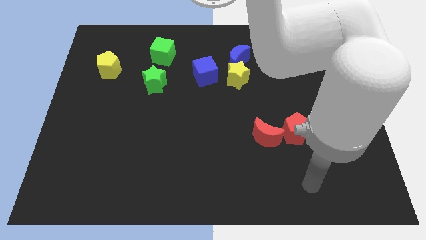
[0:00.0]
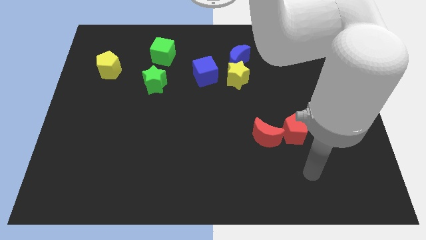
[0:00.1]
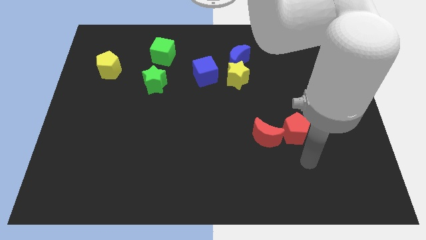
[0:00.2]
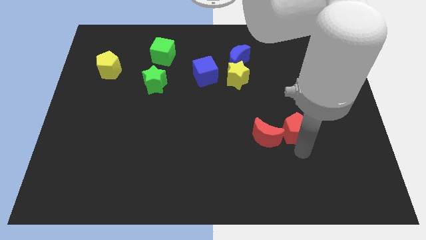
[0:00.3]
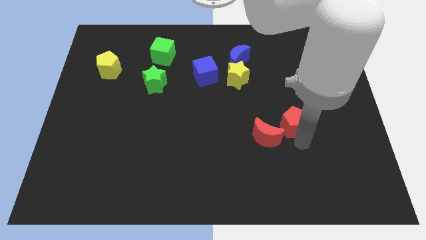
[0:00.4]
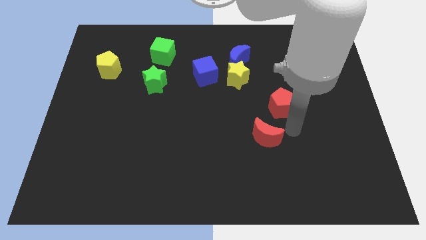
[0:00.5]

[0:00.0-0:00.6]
move the red moon away from the red pentagon

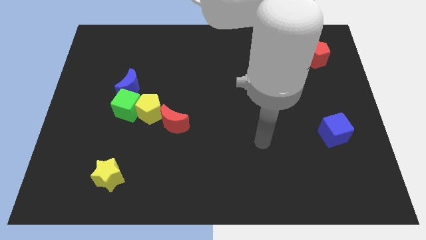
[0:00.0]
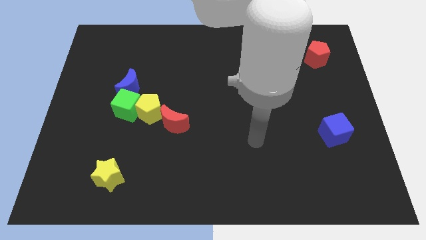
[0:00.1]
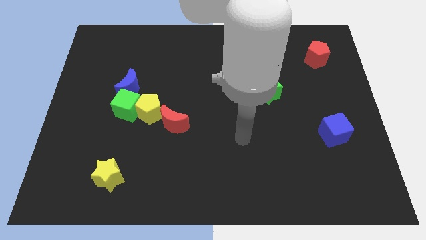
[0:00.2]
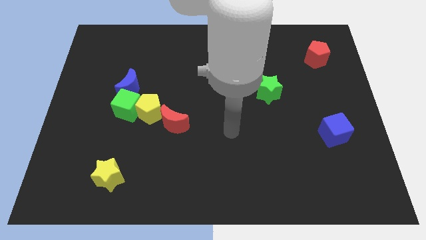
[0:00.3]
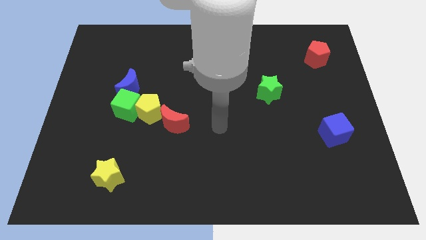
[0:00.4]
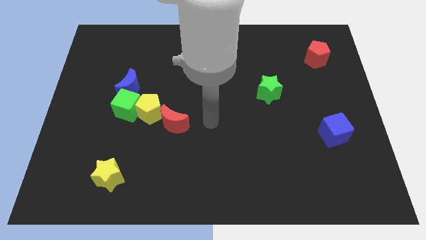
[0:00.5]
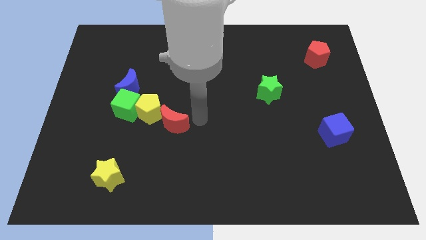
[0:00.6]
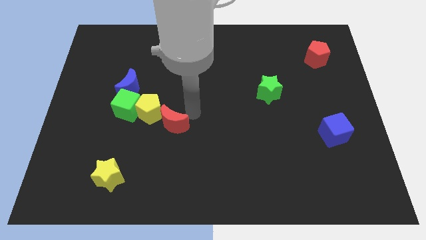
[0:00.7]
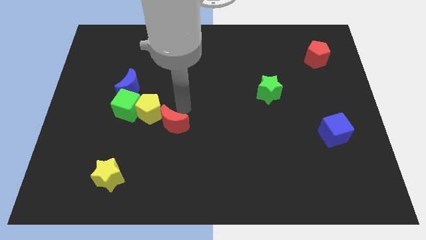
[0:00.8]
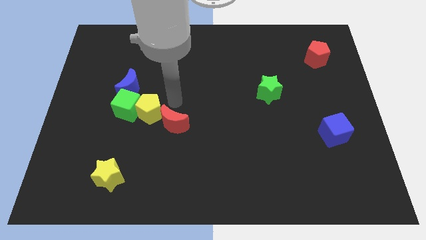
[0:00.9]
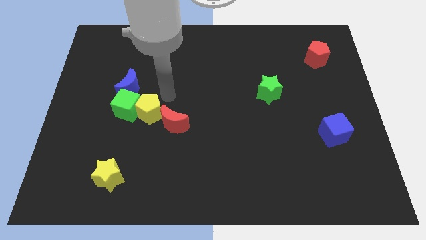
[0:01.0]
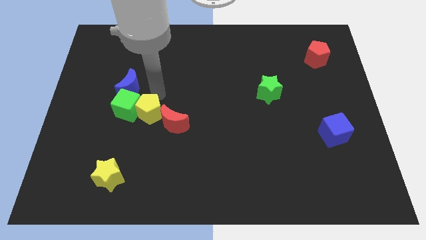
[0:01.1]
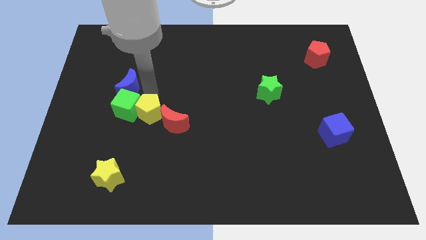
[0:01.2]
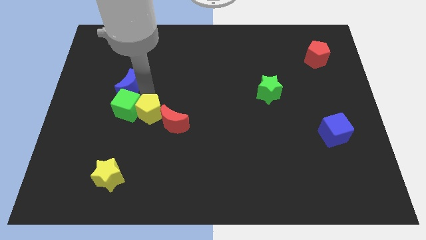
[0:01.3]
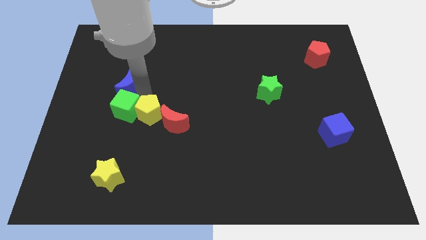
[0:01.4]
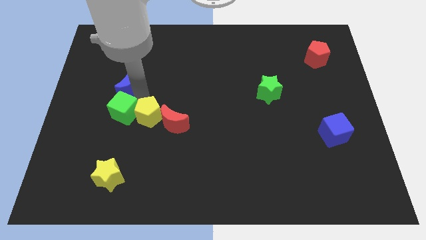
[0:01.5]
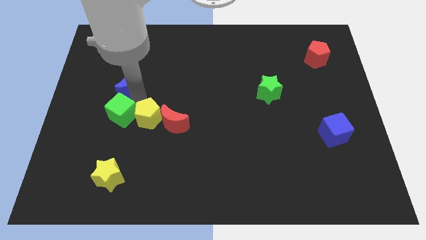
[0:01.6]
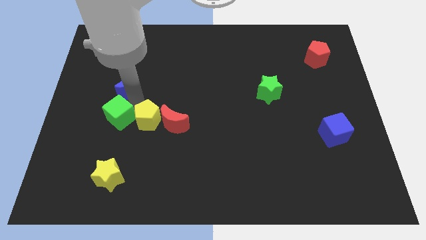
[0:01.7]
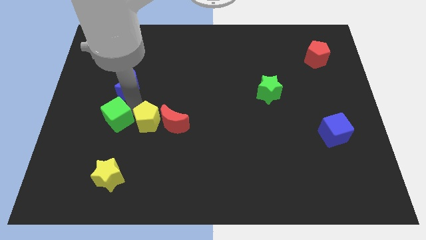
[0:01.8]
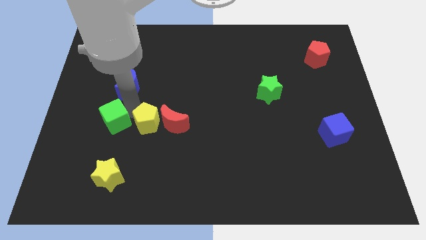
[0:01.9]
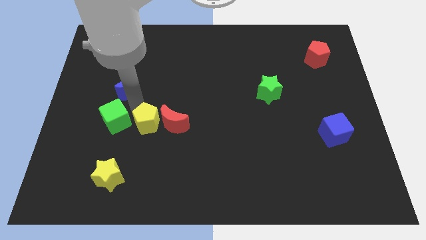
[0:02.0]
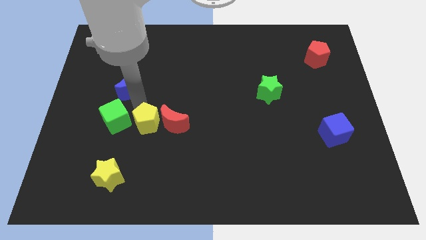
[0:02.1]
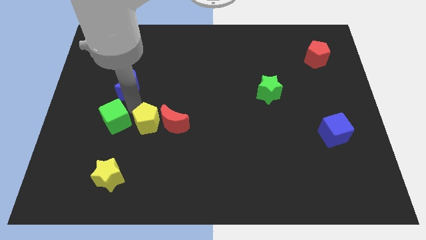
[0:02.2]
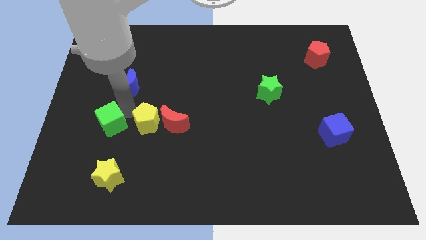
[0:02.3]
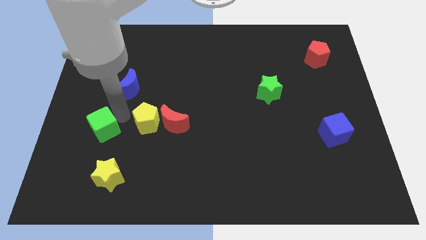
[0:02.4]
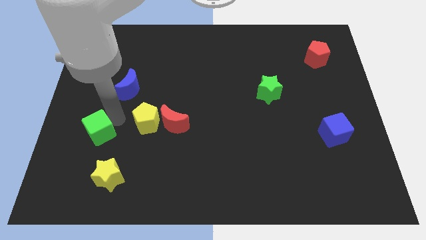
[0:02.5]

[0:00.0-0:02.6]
separate the green cube from the yellow pentagon and blue moon

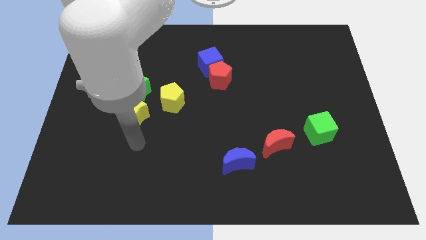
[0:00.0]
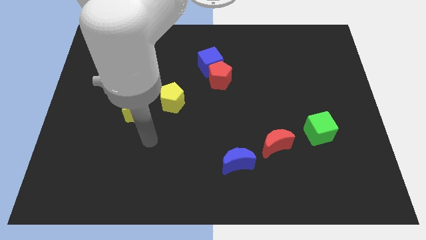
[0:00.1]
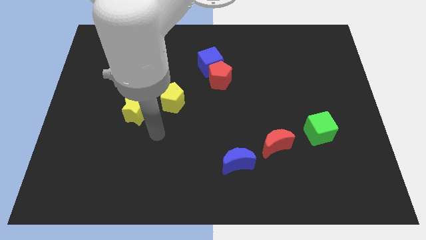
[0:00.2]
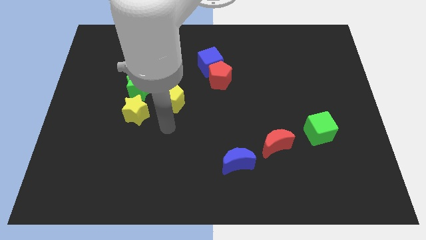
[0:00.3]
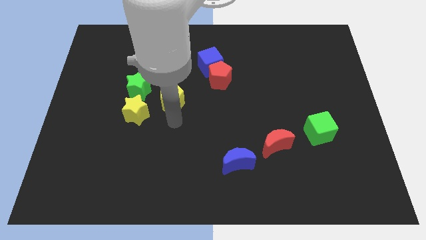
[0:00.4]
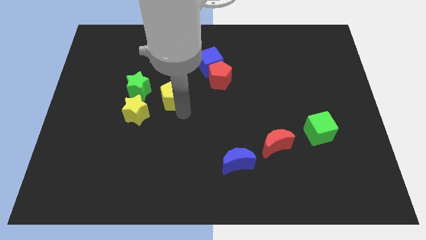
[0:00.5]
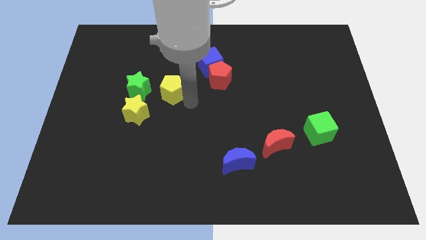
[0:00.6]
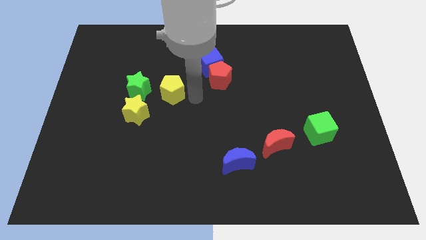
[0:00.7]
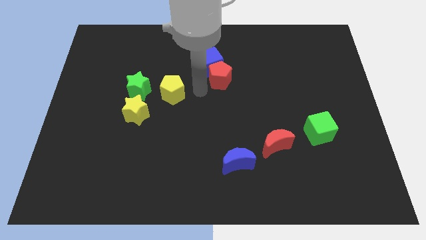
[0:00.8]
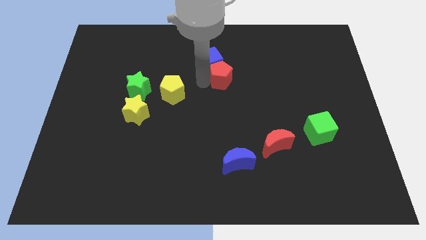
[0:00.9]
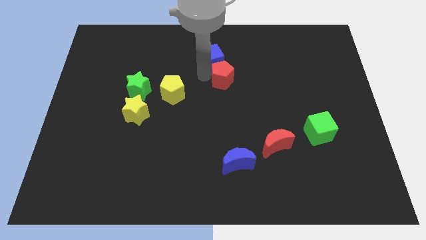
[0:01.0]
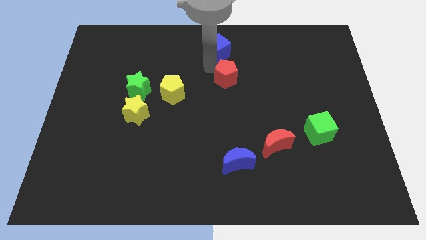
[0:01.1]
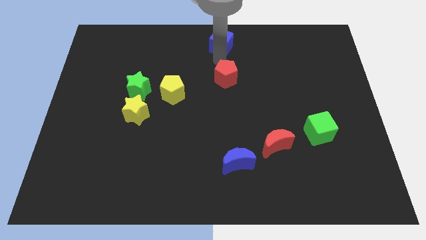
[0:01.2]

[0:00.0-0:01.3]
separate the red pentagon from the blue cube

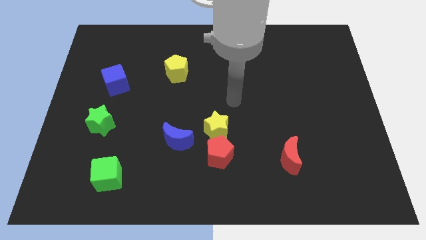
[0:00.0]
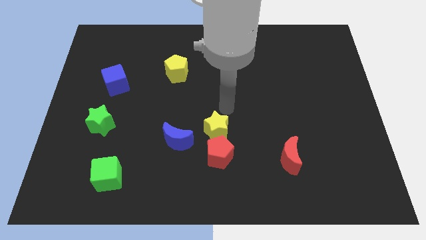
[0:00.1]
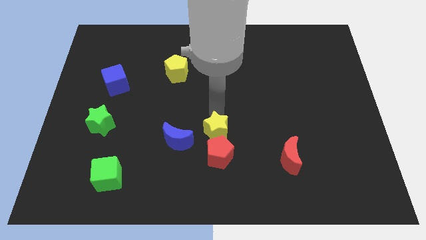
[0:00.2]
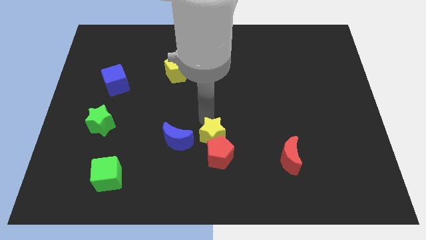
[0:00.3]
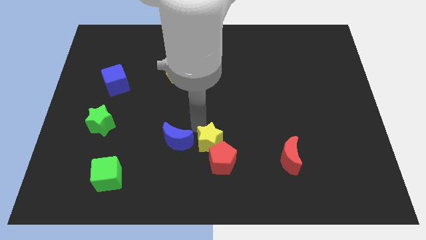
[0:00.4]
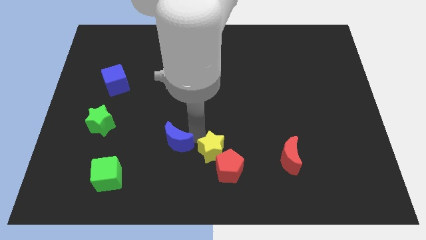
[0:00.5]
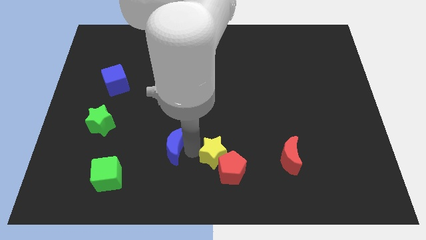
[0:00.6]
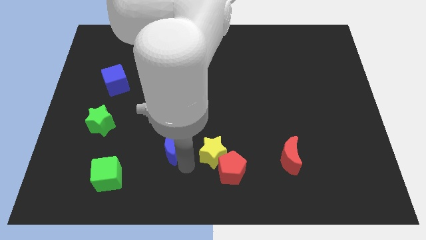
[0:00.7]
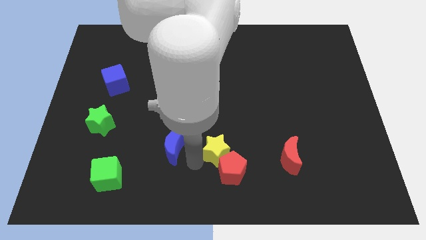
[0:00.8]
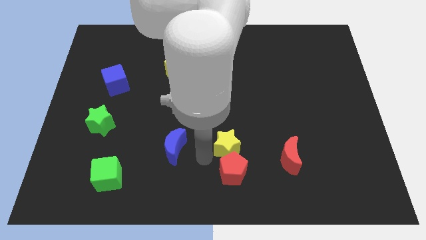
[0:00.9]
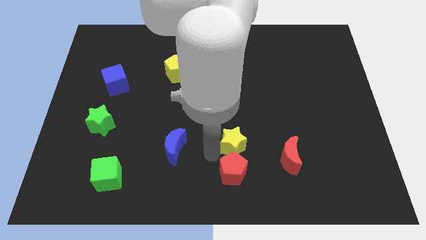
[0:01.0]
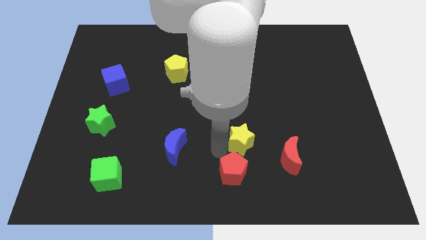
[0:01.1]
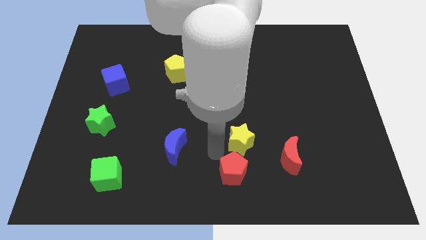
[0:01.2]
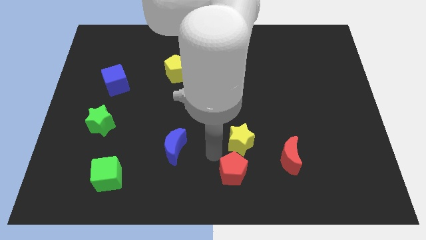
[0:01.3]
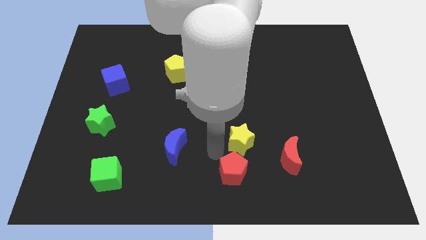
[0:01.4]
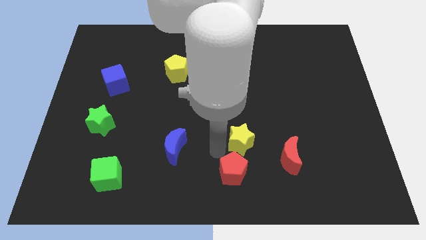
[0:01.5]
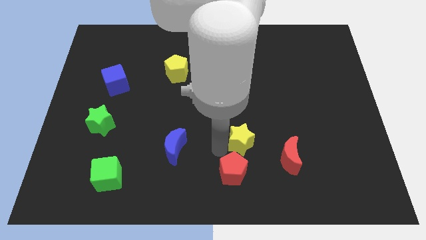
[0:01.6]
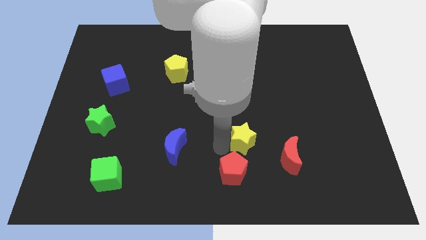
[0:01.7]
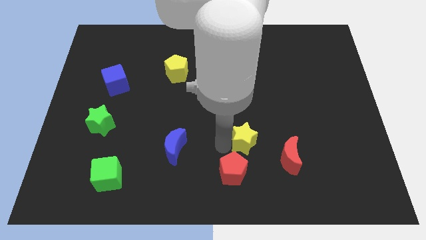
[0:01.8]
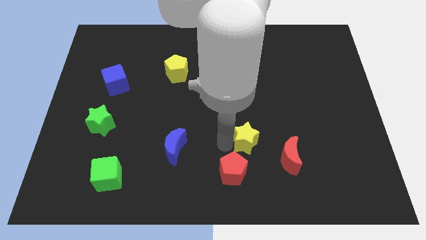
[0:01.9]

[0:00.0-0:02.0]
separate the yellow star from the red pentagon and blue moon

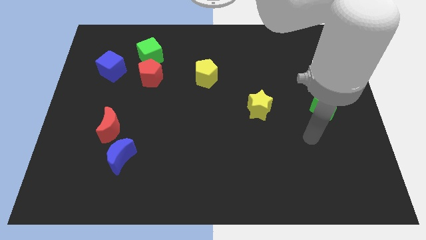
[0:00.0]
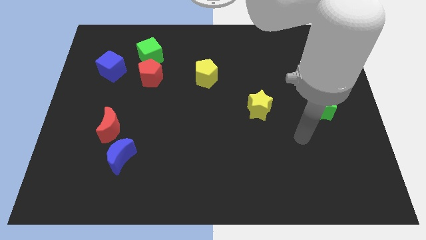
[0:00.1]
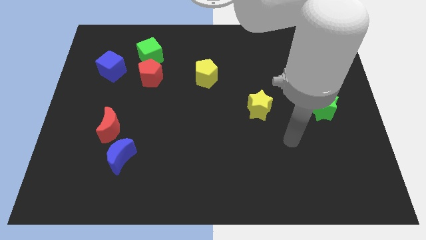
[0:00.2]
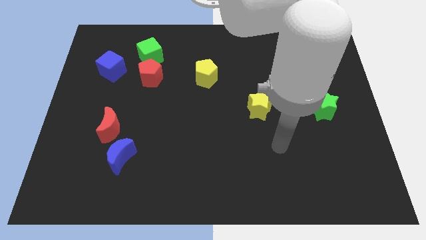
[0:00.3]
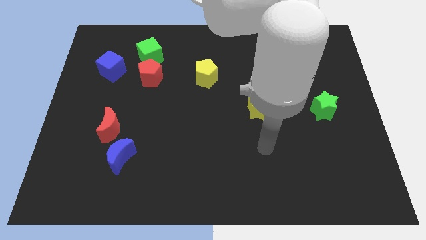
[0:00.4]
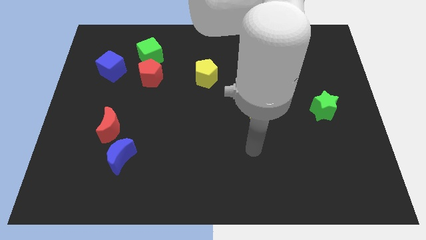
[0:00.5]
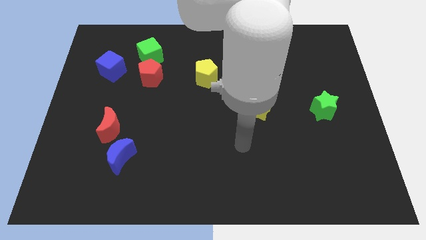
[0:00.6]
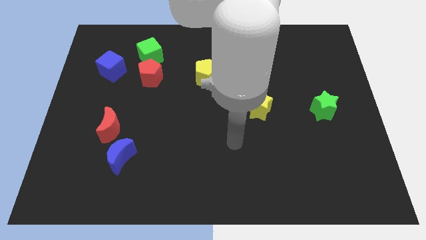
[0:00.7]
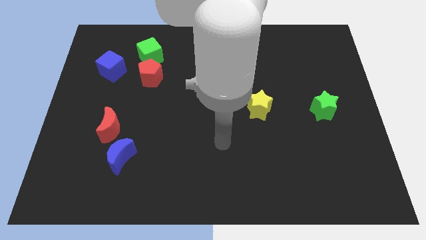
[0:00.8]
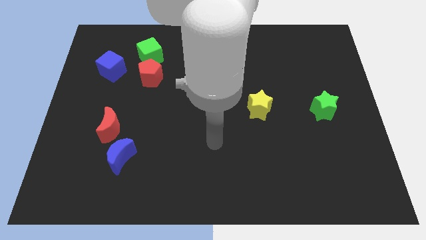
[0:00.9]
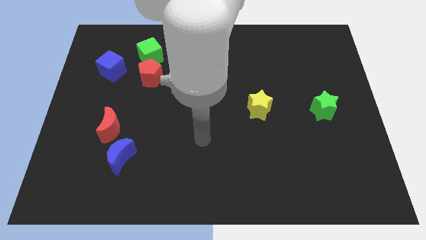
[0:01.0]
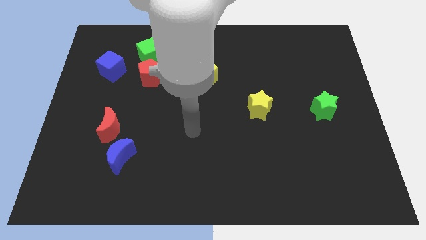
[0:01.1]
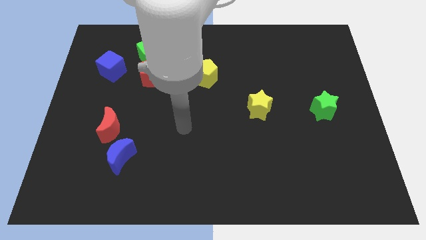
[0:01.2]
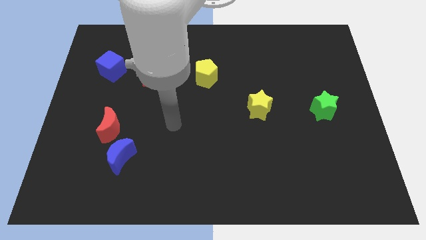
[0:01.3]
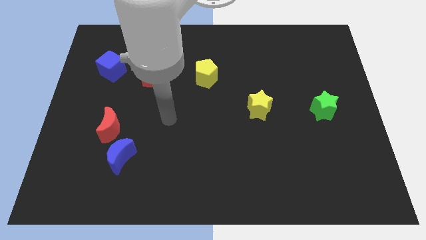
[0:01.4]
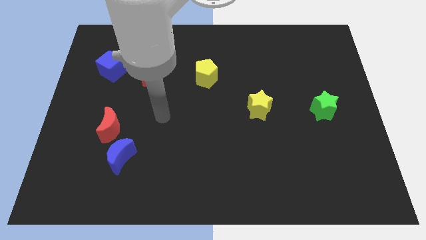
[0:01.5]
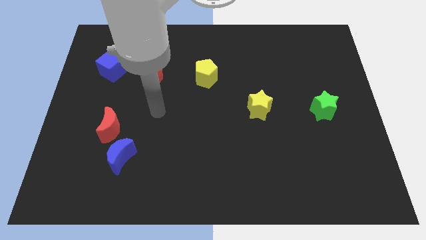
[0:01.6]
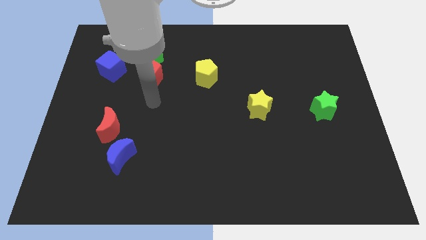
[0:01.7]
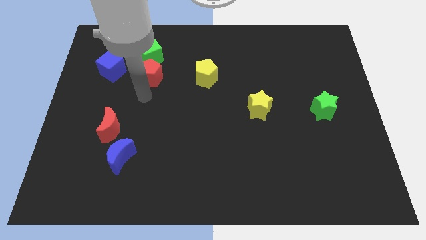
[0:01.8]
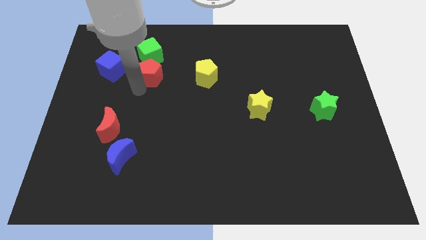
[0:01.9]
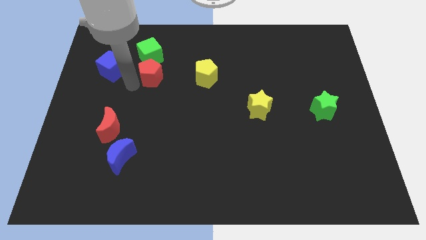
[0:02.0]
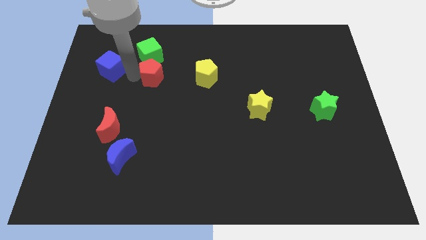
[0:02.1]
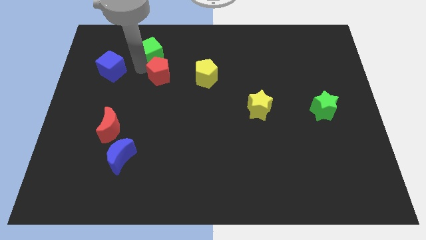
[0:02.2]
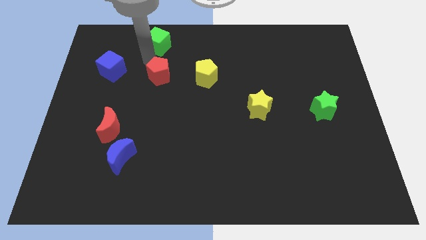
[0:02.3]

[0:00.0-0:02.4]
move the red pentagon away from the green cube

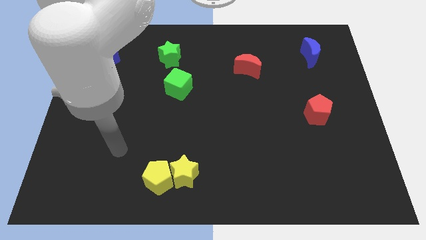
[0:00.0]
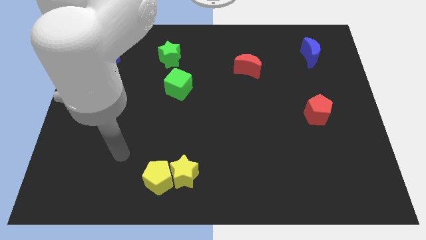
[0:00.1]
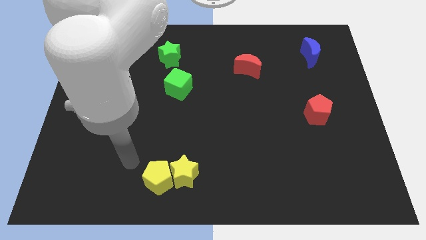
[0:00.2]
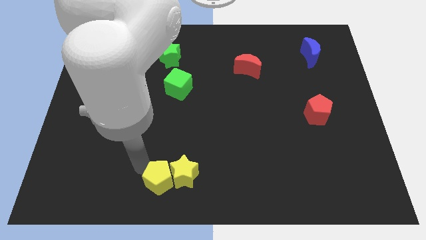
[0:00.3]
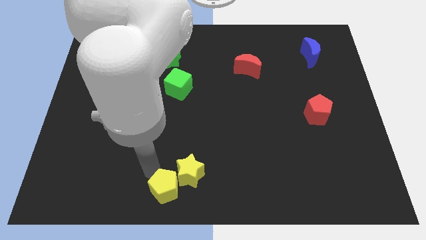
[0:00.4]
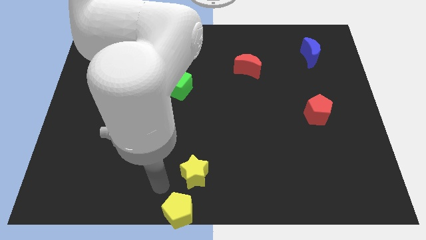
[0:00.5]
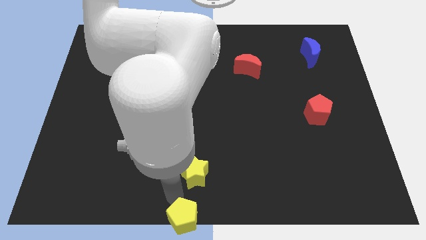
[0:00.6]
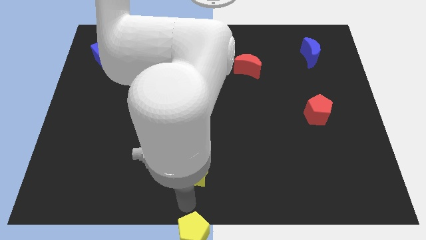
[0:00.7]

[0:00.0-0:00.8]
separate the yellow star from the yellow pentagon
